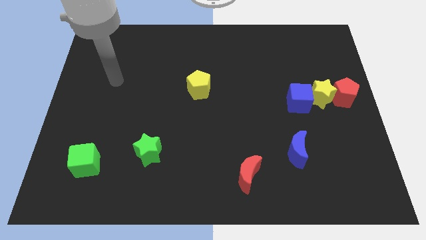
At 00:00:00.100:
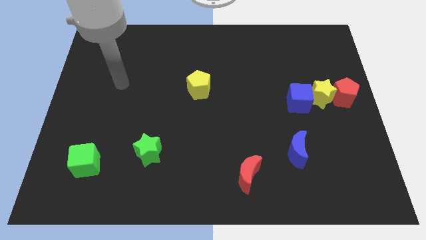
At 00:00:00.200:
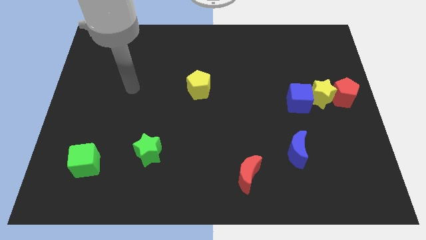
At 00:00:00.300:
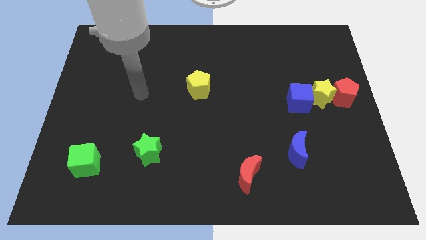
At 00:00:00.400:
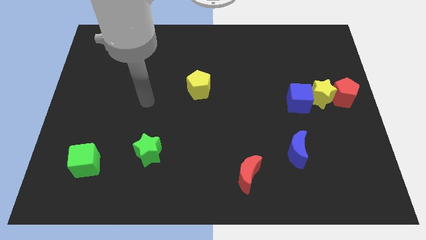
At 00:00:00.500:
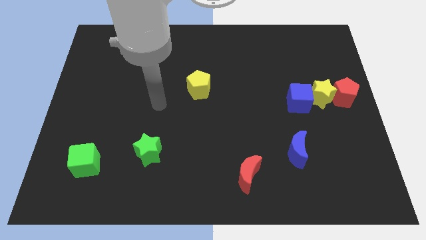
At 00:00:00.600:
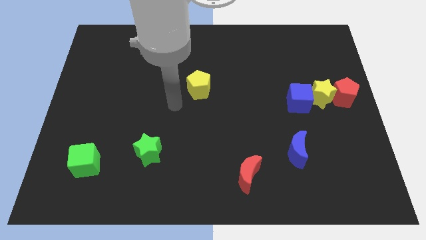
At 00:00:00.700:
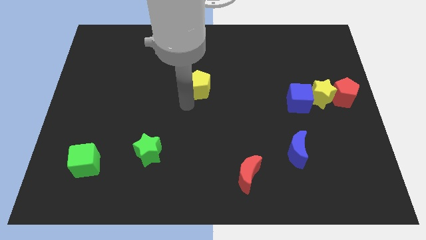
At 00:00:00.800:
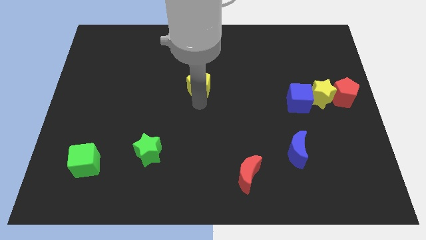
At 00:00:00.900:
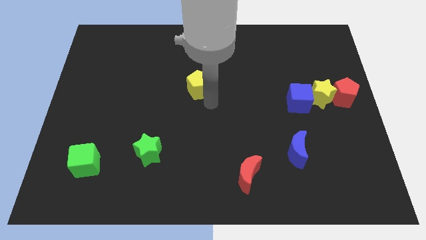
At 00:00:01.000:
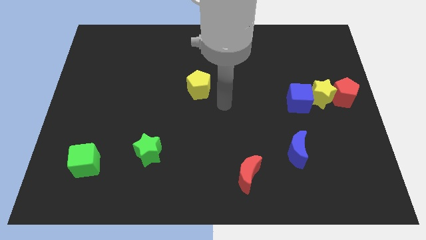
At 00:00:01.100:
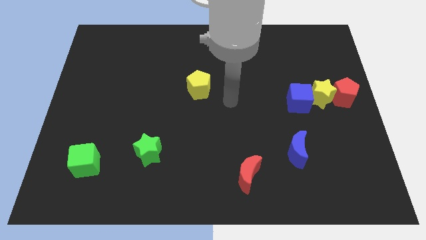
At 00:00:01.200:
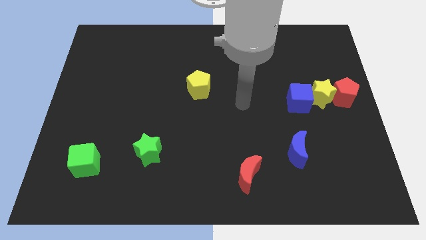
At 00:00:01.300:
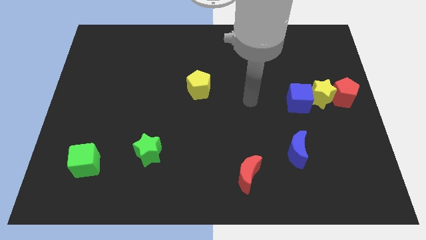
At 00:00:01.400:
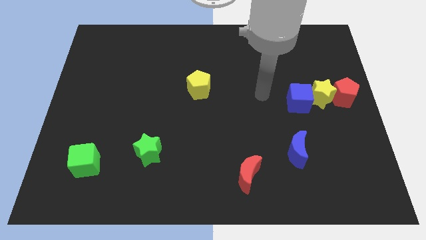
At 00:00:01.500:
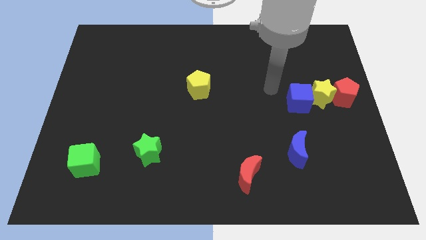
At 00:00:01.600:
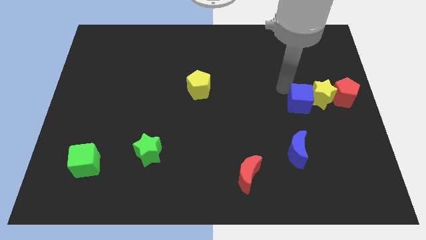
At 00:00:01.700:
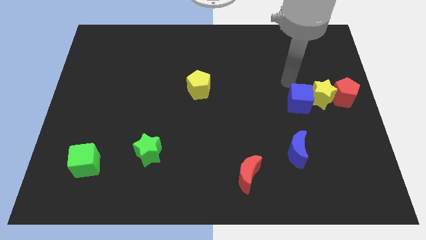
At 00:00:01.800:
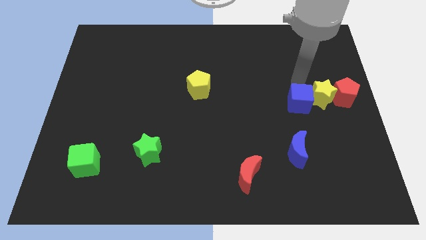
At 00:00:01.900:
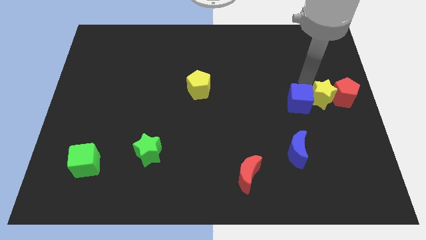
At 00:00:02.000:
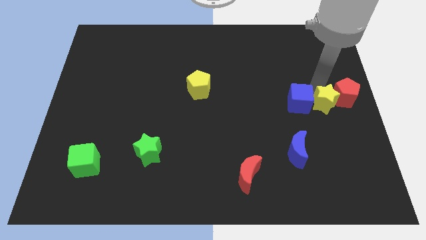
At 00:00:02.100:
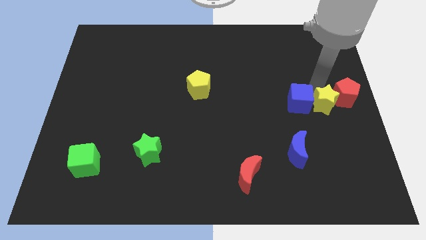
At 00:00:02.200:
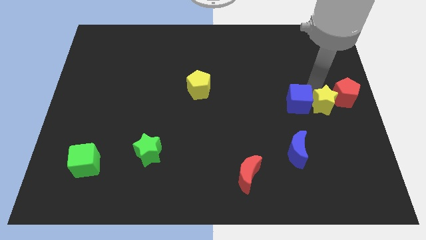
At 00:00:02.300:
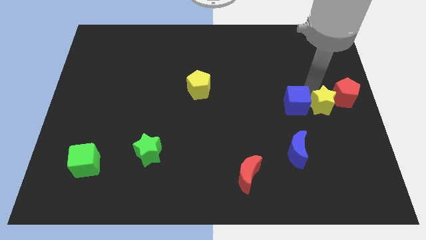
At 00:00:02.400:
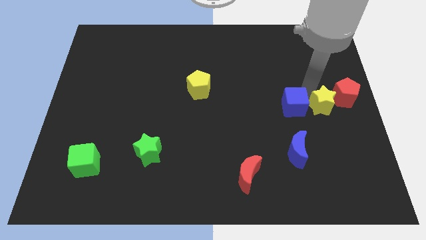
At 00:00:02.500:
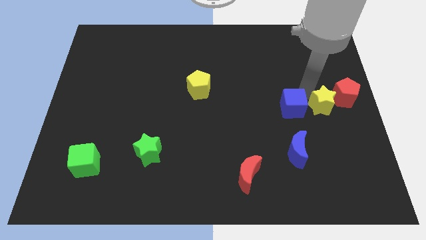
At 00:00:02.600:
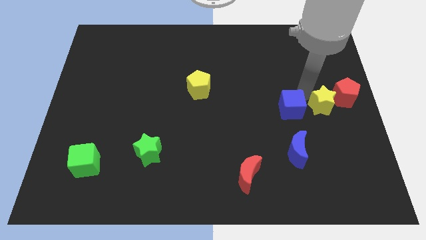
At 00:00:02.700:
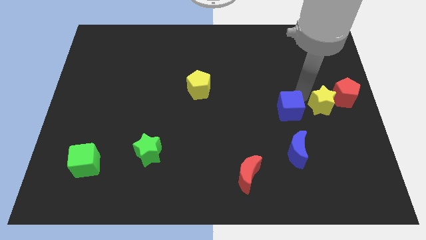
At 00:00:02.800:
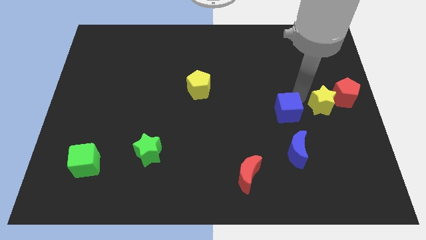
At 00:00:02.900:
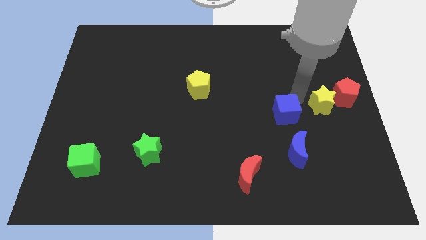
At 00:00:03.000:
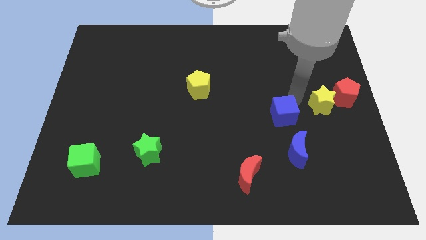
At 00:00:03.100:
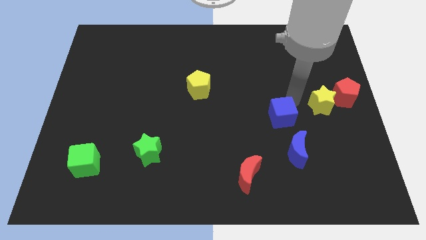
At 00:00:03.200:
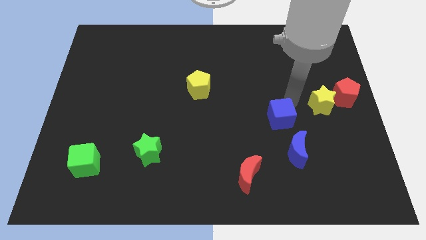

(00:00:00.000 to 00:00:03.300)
move the blue cube slightly down and to the left

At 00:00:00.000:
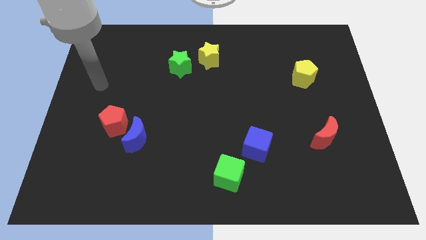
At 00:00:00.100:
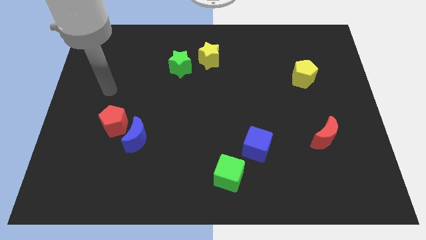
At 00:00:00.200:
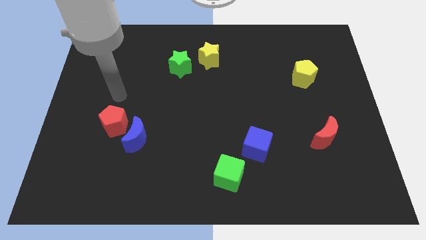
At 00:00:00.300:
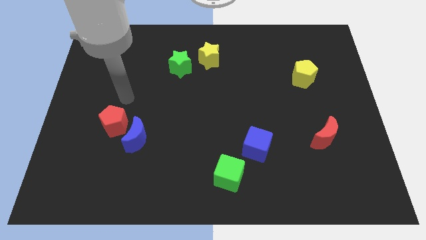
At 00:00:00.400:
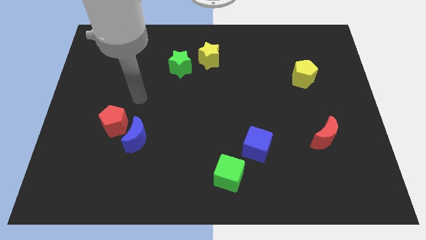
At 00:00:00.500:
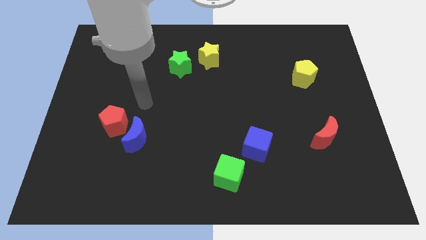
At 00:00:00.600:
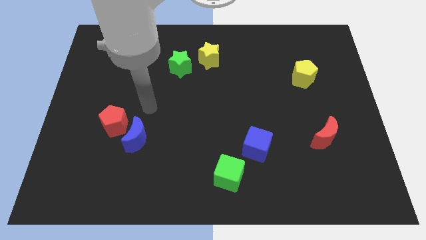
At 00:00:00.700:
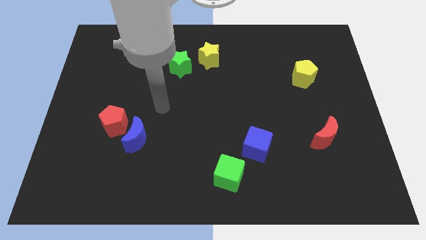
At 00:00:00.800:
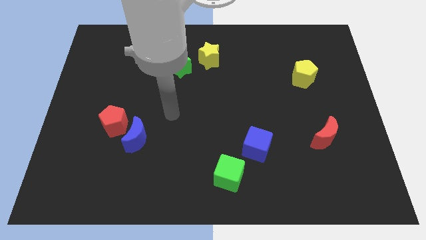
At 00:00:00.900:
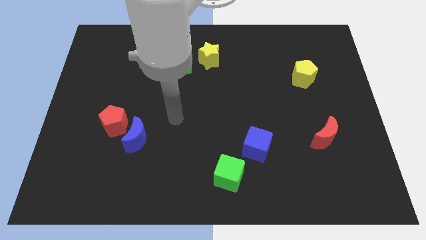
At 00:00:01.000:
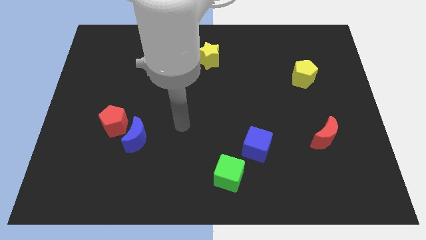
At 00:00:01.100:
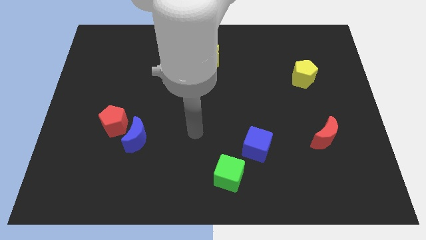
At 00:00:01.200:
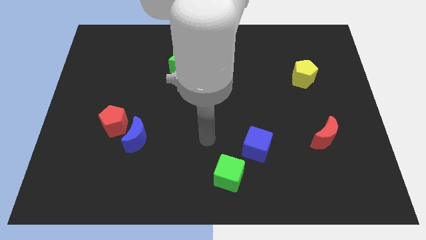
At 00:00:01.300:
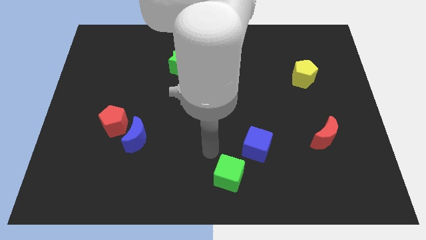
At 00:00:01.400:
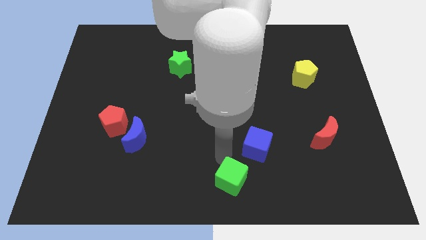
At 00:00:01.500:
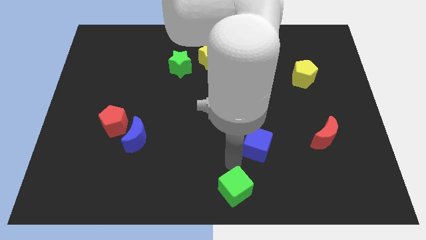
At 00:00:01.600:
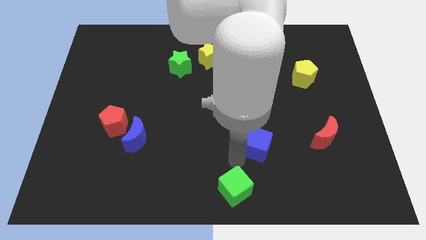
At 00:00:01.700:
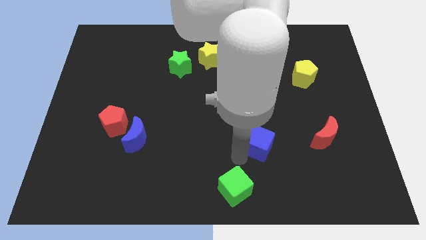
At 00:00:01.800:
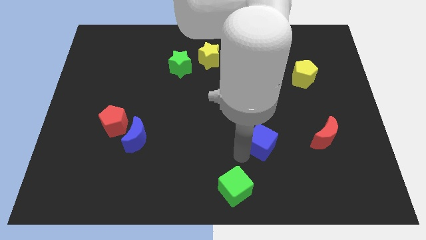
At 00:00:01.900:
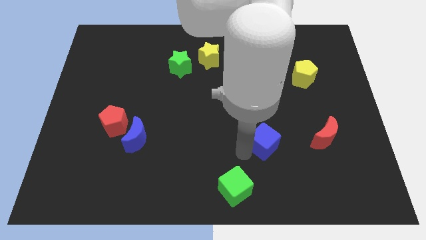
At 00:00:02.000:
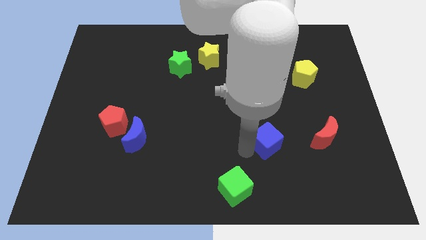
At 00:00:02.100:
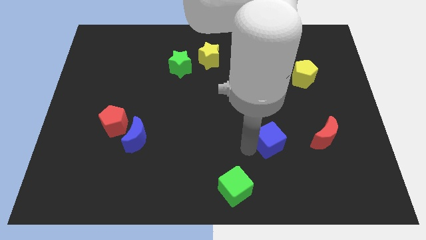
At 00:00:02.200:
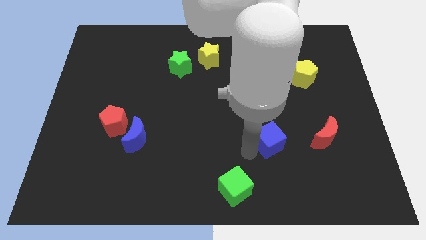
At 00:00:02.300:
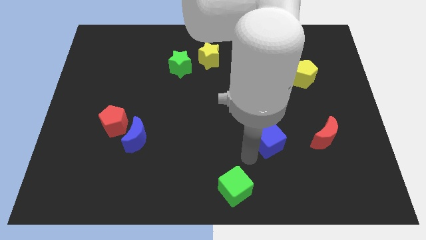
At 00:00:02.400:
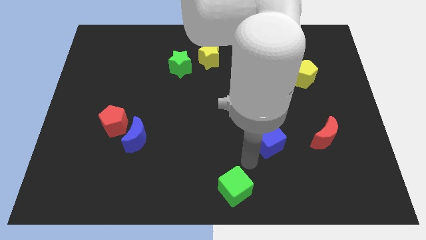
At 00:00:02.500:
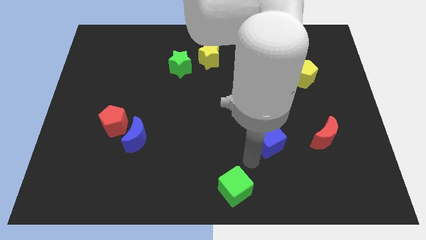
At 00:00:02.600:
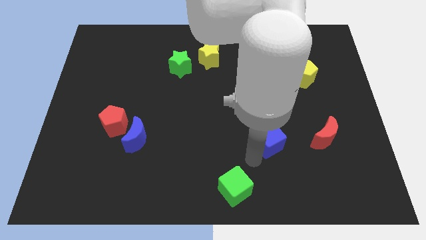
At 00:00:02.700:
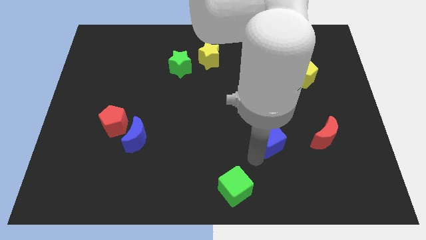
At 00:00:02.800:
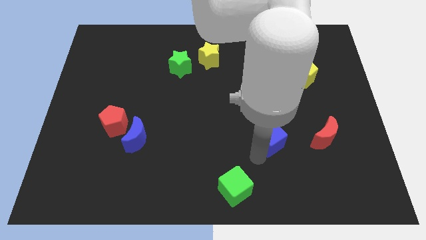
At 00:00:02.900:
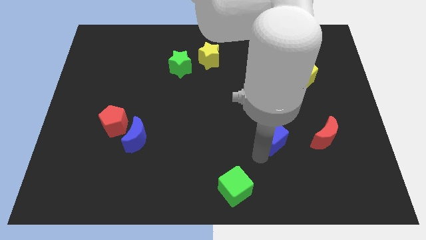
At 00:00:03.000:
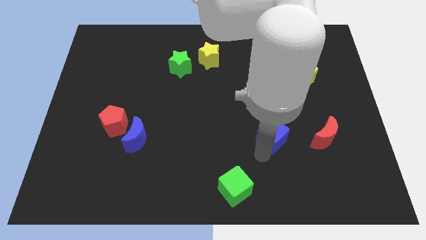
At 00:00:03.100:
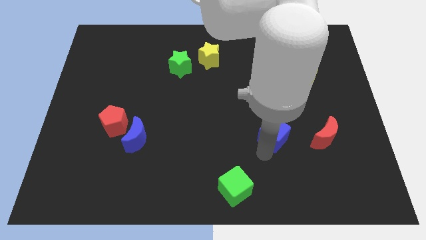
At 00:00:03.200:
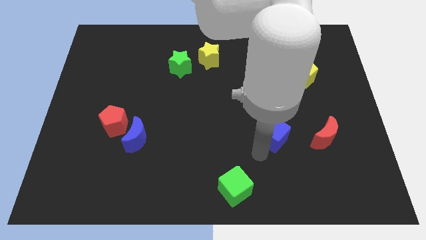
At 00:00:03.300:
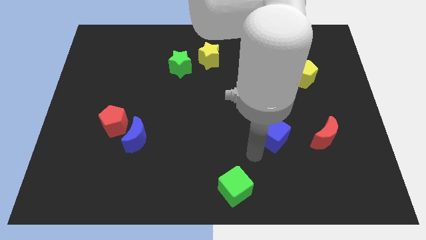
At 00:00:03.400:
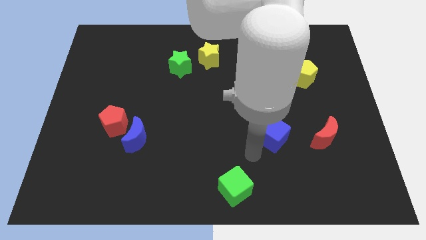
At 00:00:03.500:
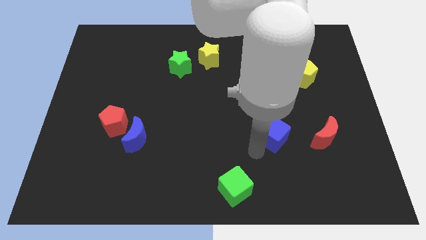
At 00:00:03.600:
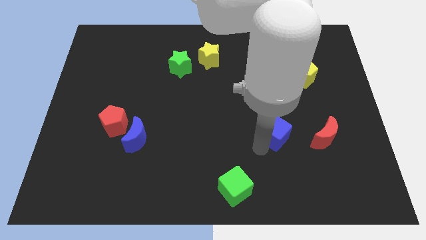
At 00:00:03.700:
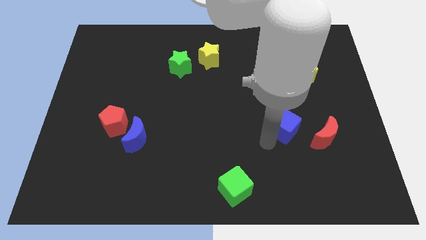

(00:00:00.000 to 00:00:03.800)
slide the blue cube a little bit up and to the right

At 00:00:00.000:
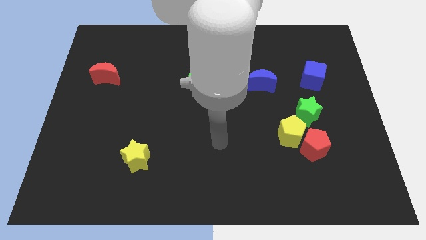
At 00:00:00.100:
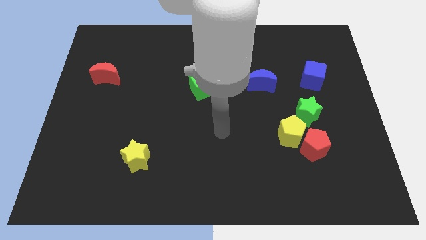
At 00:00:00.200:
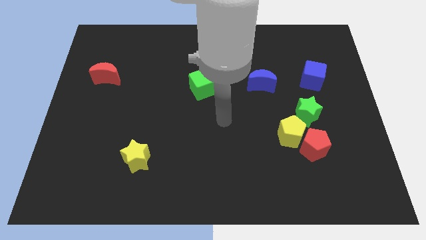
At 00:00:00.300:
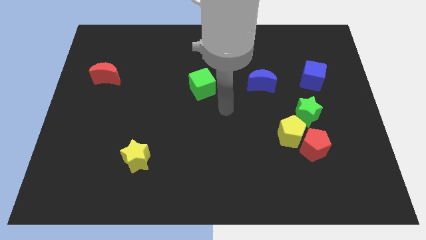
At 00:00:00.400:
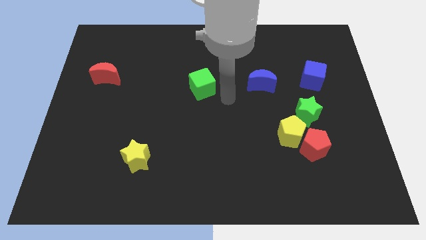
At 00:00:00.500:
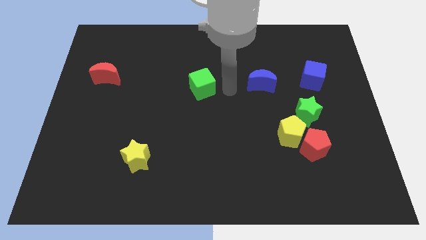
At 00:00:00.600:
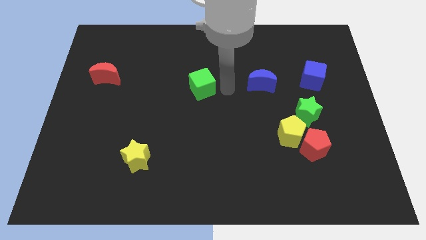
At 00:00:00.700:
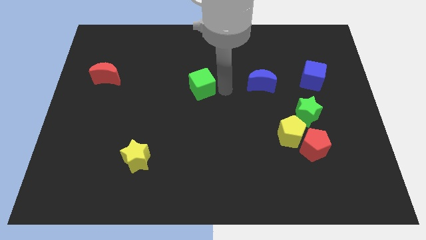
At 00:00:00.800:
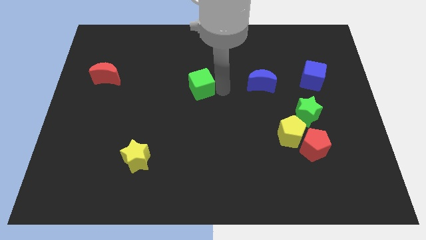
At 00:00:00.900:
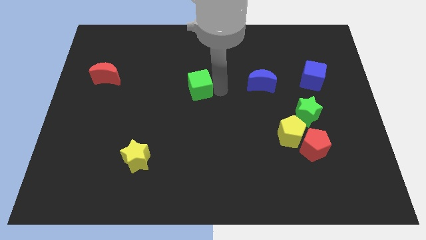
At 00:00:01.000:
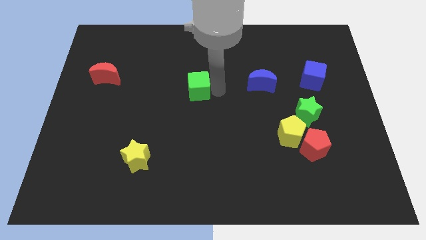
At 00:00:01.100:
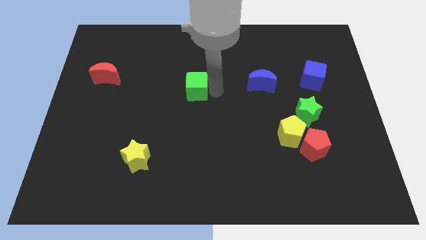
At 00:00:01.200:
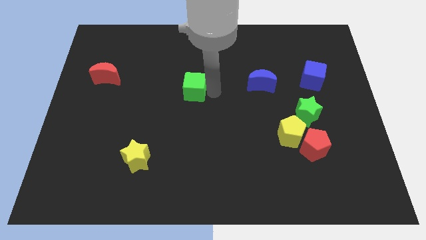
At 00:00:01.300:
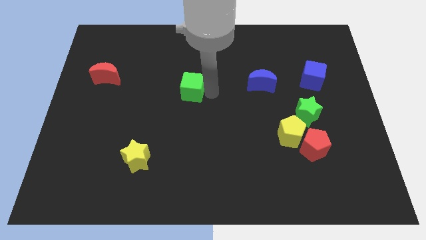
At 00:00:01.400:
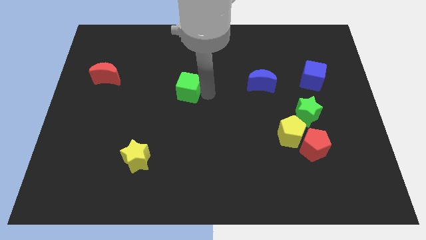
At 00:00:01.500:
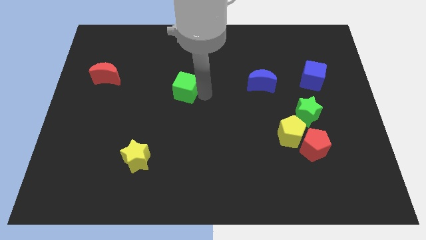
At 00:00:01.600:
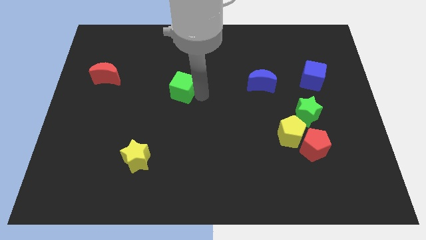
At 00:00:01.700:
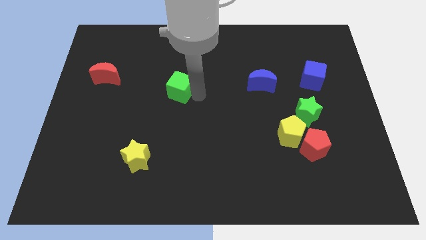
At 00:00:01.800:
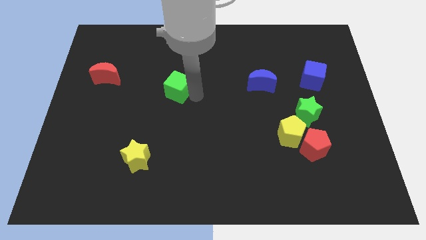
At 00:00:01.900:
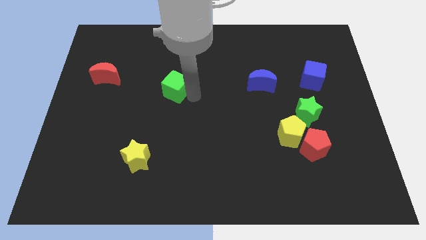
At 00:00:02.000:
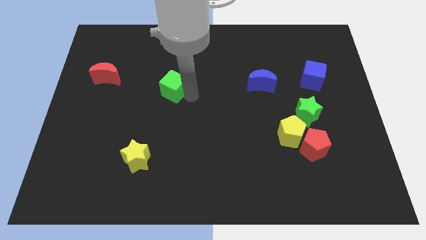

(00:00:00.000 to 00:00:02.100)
push the green cube a little to the left
